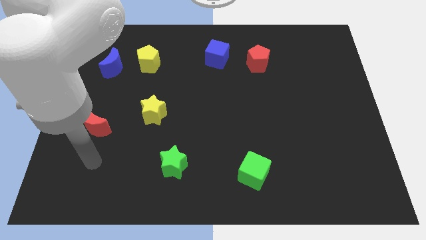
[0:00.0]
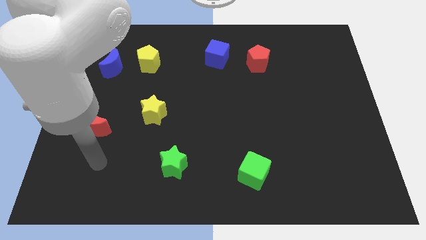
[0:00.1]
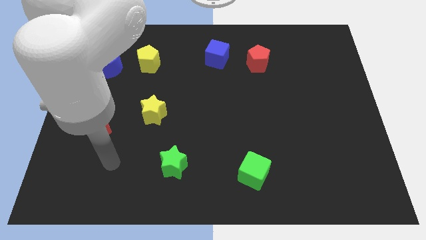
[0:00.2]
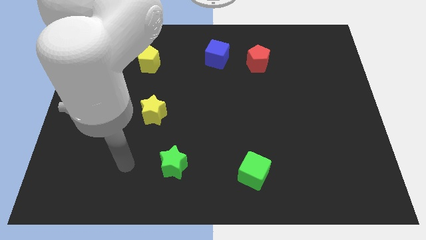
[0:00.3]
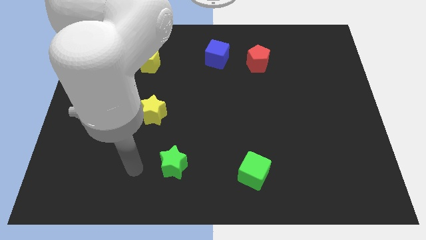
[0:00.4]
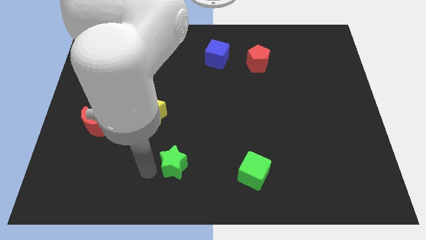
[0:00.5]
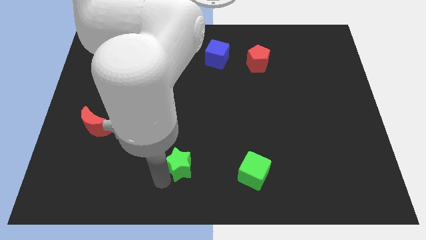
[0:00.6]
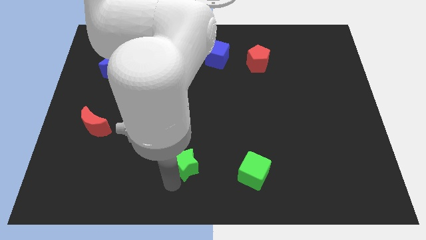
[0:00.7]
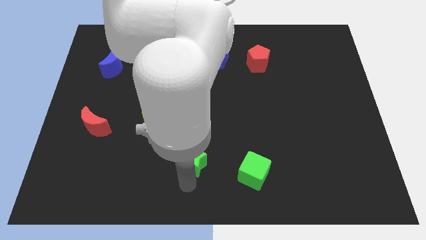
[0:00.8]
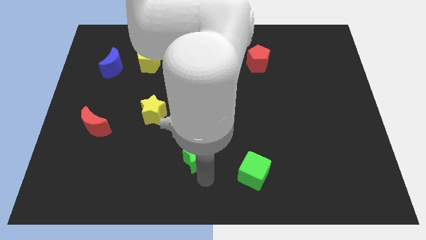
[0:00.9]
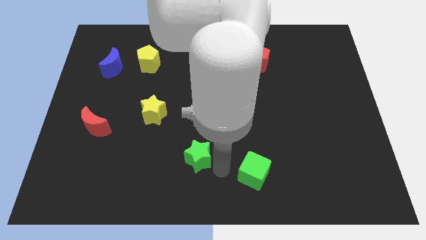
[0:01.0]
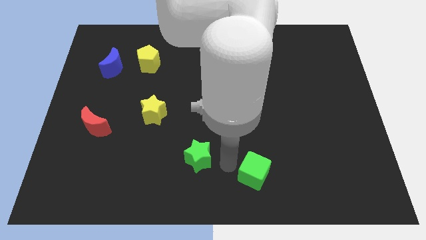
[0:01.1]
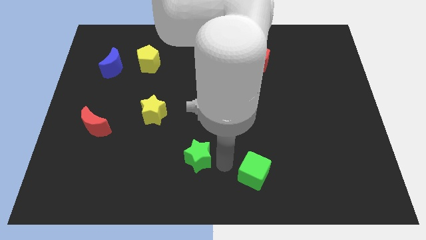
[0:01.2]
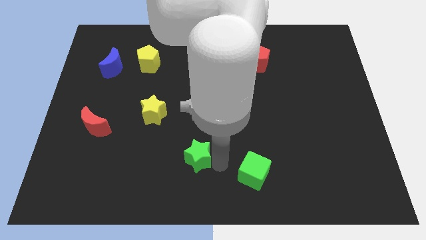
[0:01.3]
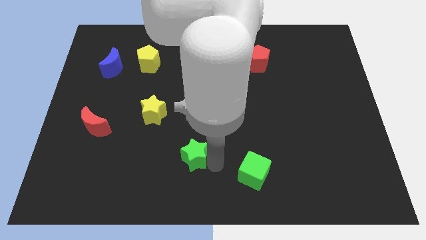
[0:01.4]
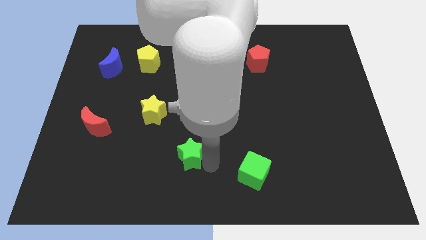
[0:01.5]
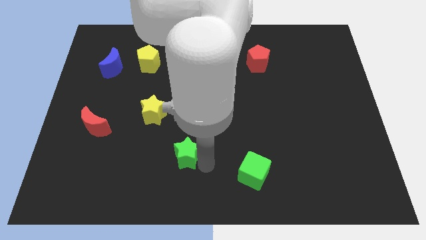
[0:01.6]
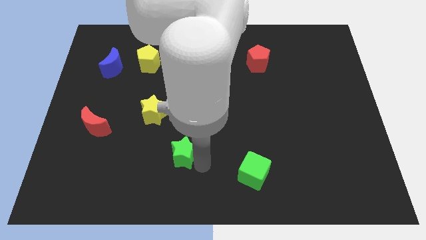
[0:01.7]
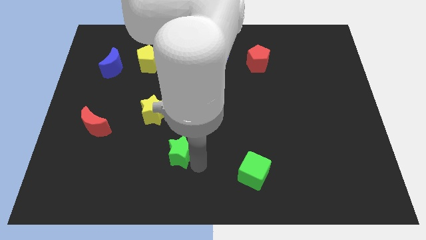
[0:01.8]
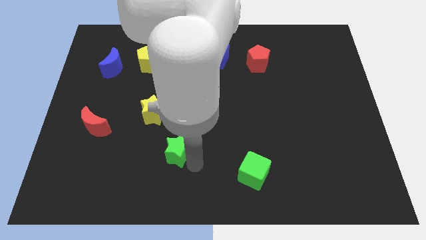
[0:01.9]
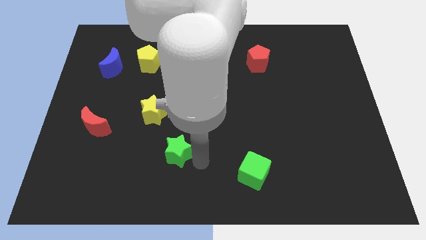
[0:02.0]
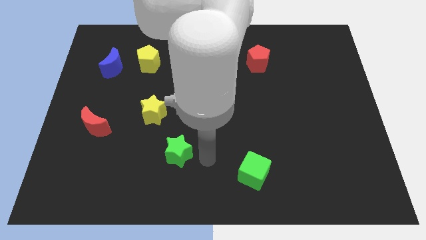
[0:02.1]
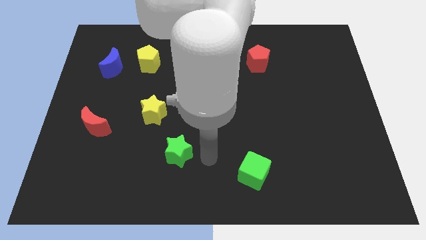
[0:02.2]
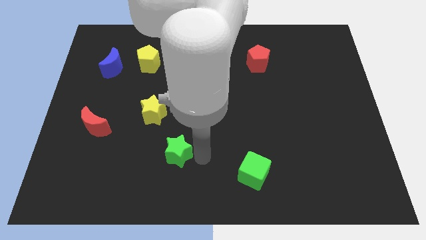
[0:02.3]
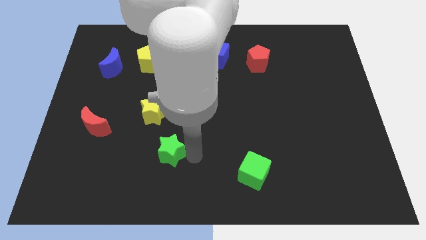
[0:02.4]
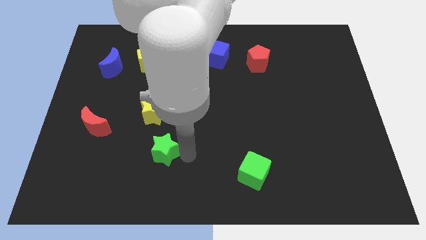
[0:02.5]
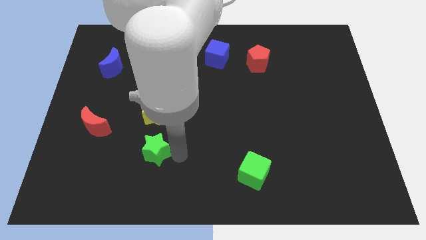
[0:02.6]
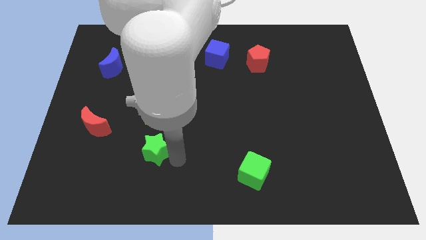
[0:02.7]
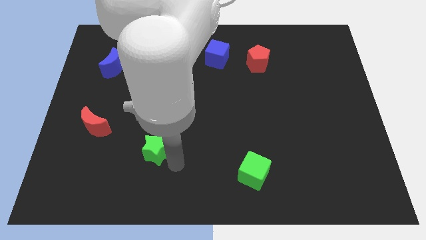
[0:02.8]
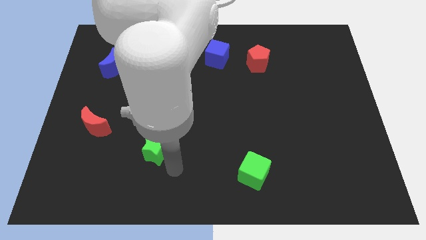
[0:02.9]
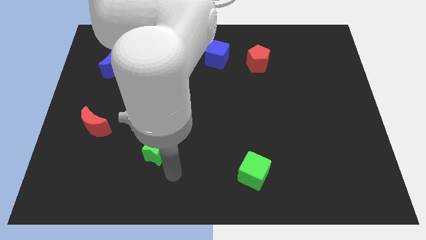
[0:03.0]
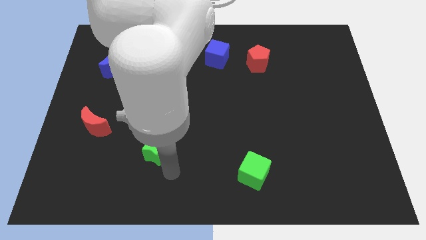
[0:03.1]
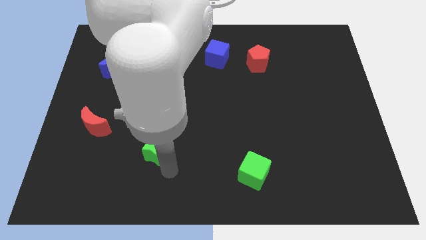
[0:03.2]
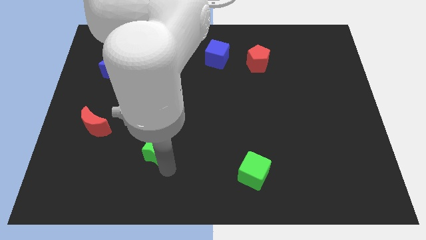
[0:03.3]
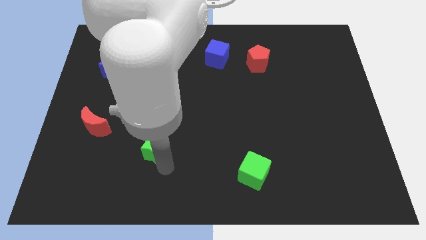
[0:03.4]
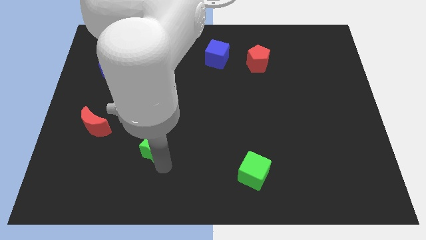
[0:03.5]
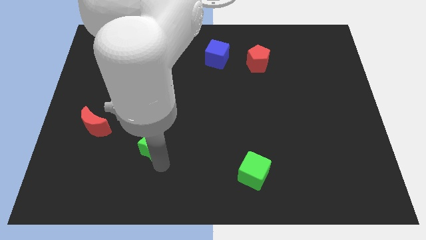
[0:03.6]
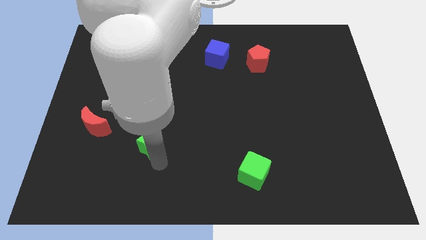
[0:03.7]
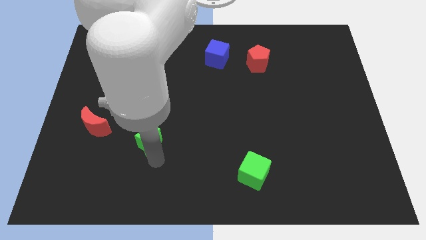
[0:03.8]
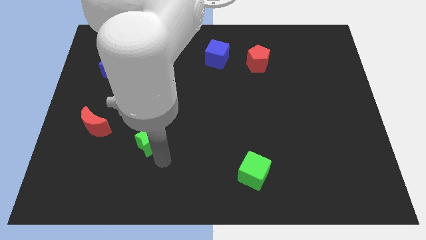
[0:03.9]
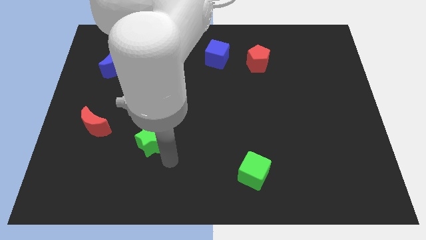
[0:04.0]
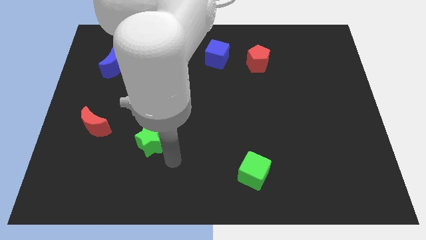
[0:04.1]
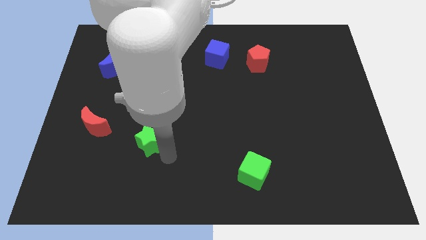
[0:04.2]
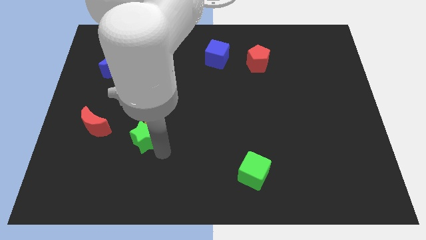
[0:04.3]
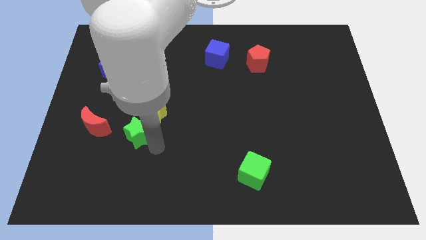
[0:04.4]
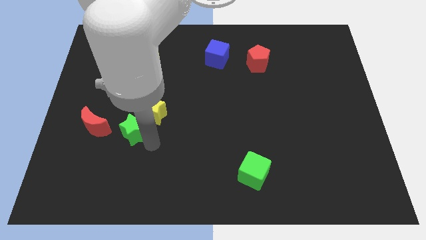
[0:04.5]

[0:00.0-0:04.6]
slide the green star just left of the yellow star

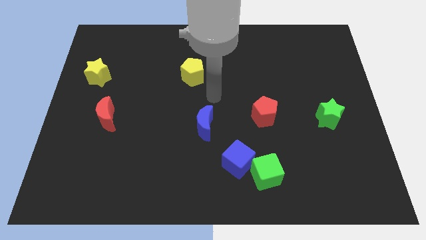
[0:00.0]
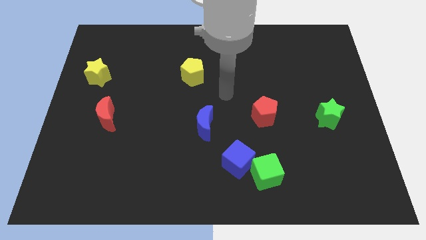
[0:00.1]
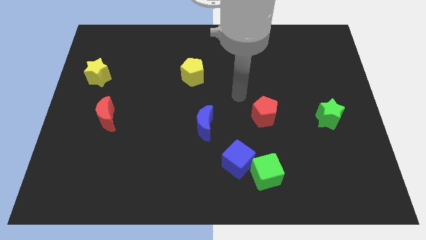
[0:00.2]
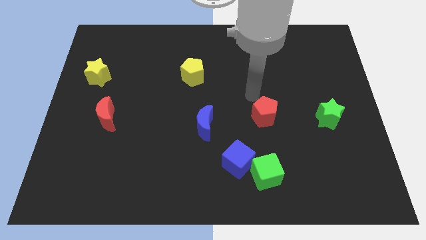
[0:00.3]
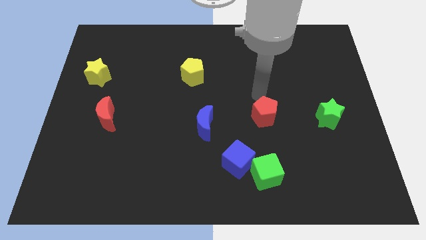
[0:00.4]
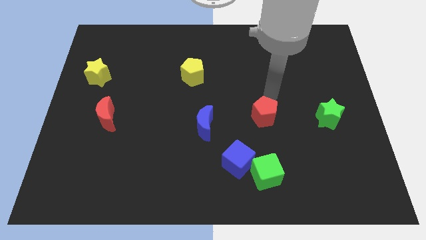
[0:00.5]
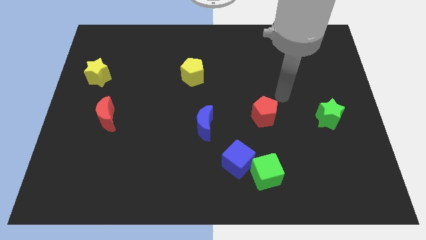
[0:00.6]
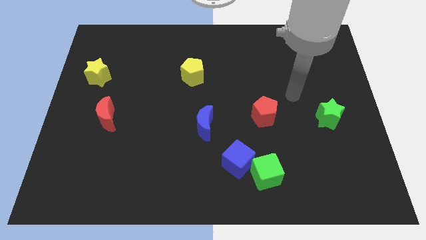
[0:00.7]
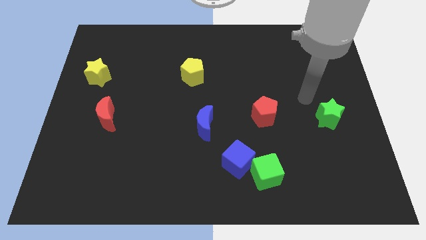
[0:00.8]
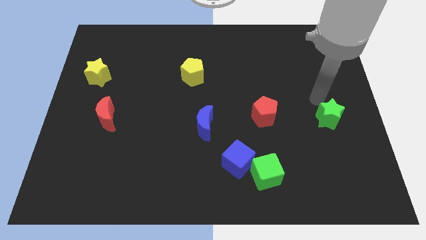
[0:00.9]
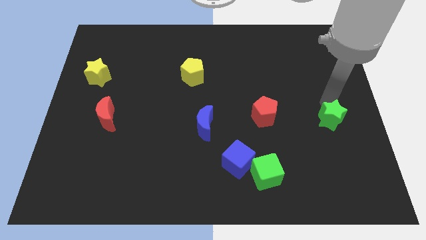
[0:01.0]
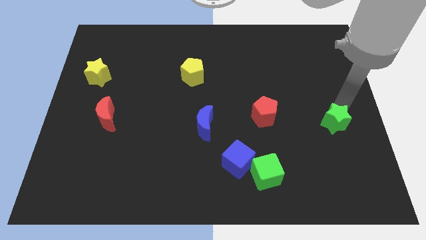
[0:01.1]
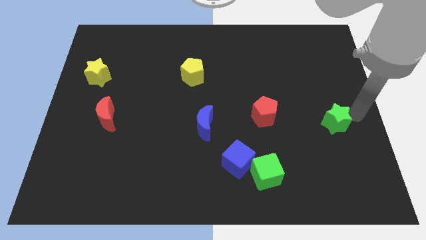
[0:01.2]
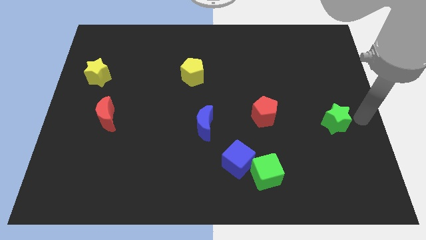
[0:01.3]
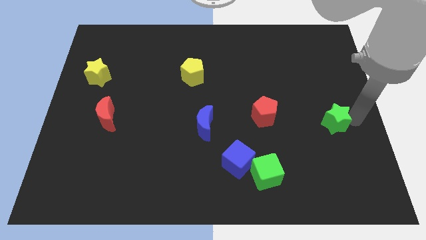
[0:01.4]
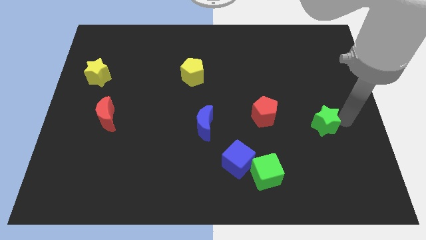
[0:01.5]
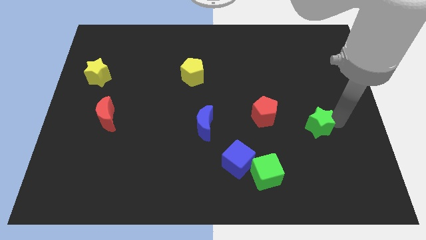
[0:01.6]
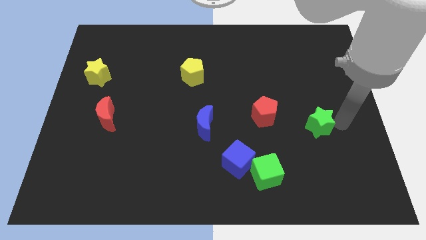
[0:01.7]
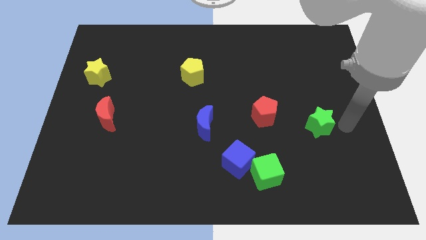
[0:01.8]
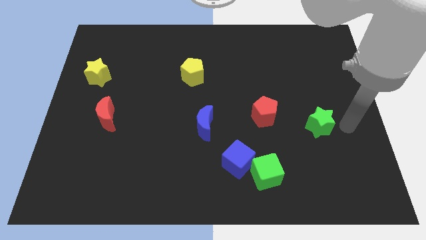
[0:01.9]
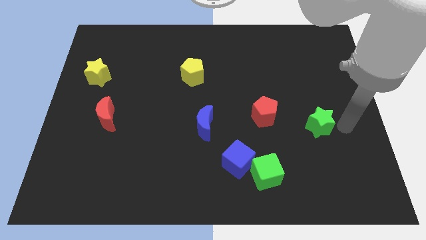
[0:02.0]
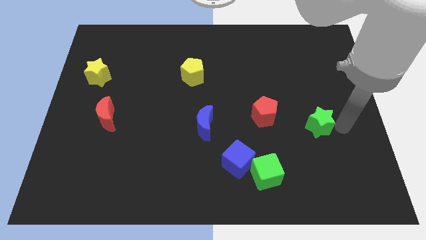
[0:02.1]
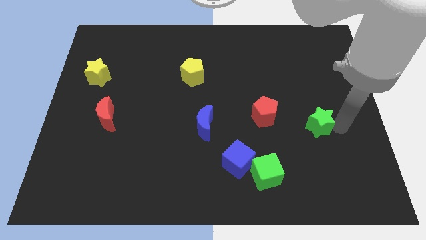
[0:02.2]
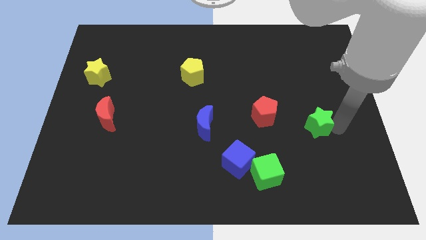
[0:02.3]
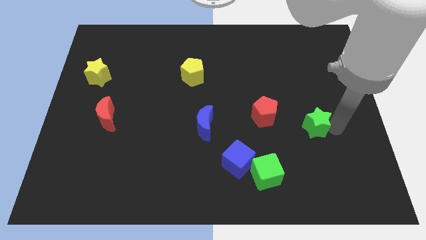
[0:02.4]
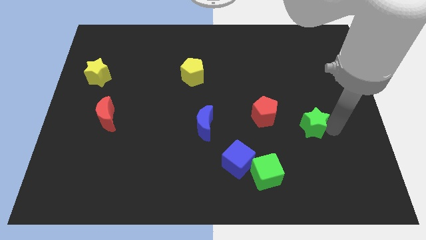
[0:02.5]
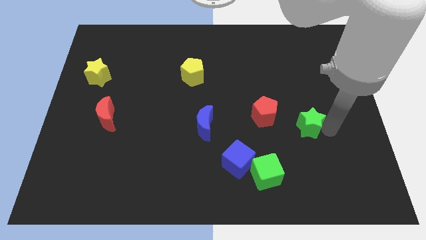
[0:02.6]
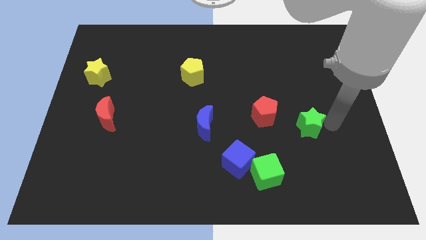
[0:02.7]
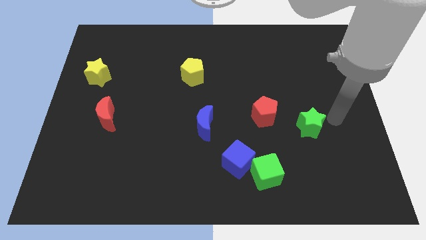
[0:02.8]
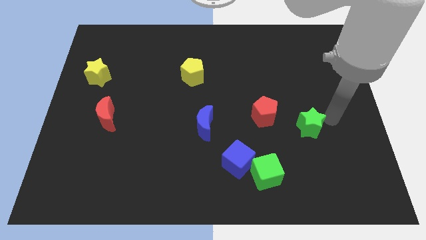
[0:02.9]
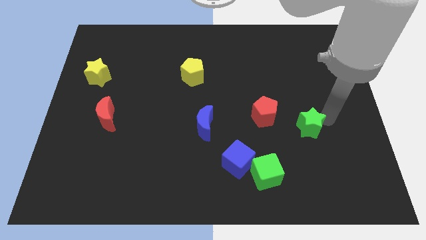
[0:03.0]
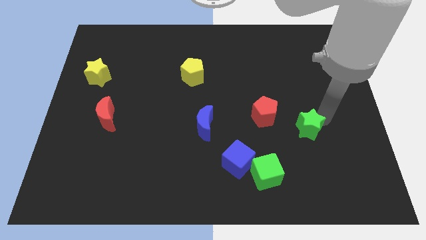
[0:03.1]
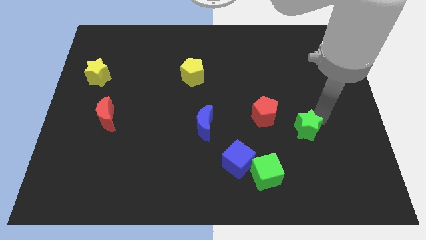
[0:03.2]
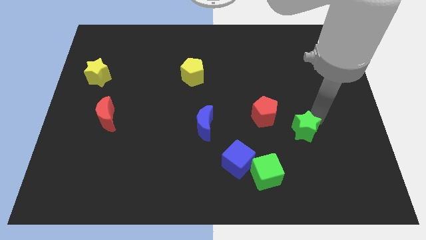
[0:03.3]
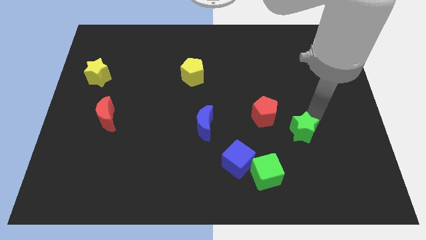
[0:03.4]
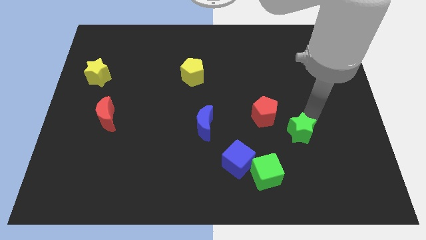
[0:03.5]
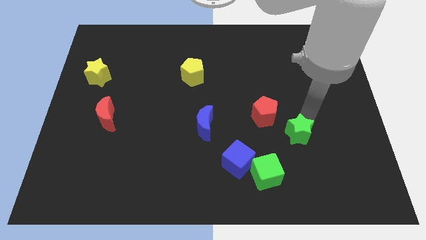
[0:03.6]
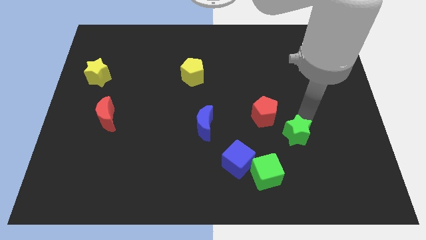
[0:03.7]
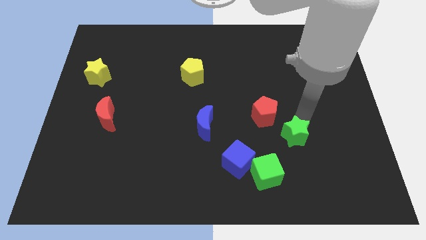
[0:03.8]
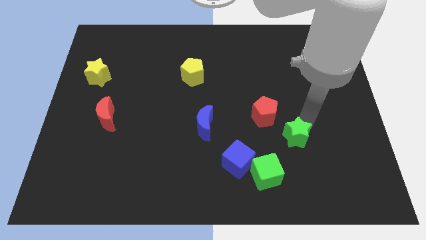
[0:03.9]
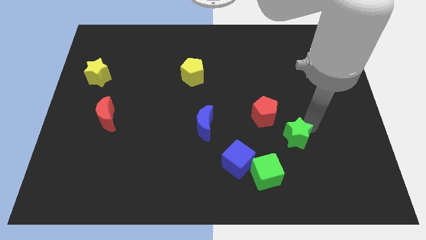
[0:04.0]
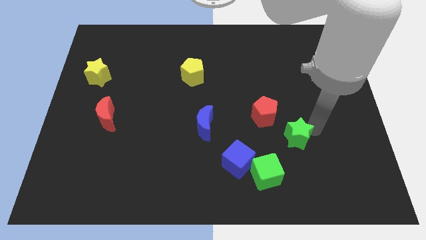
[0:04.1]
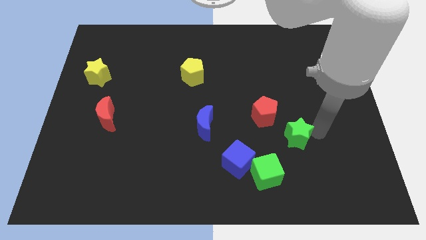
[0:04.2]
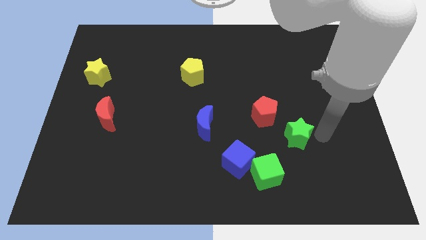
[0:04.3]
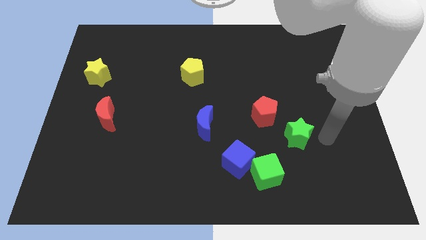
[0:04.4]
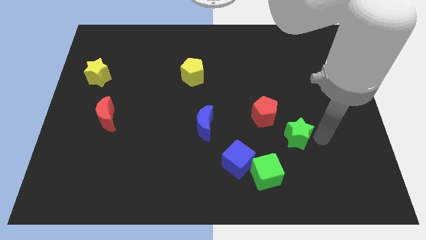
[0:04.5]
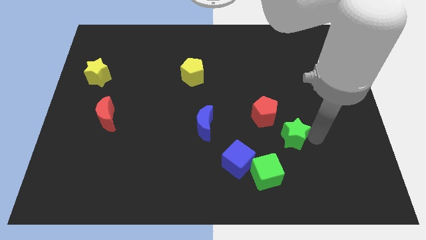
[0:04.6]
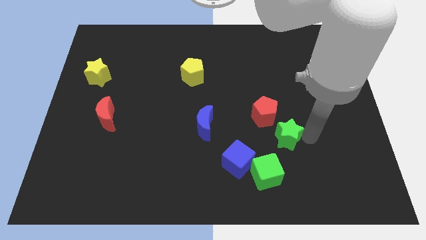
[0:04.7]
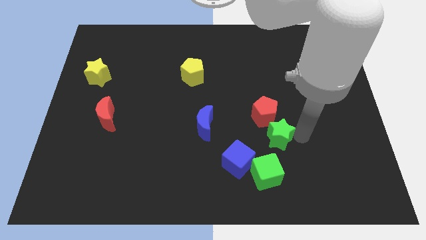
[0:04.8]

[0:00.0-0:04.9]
slide the green star to the top right of the blue cube
